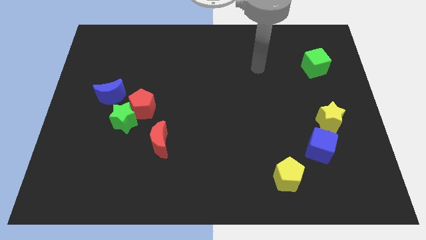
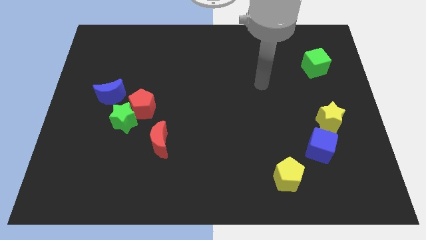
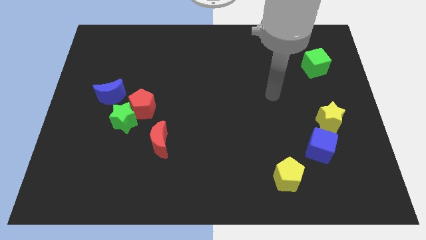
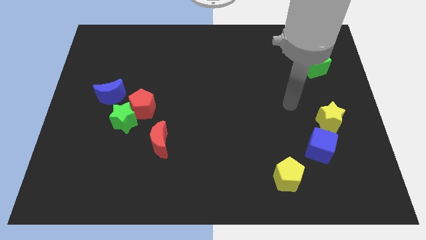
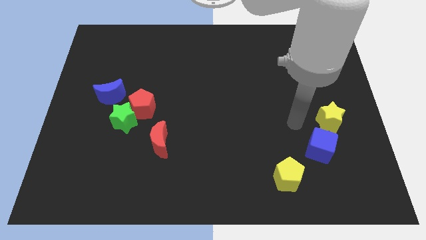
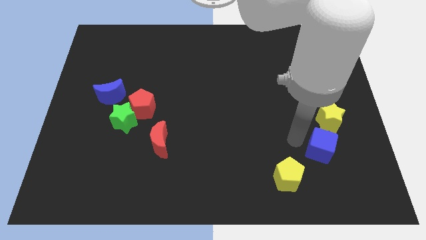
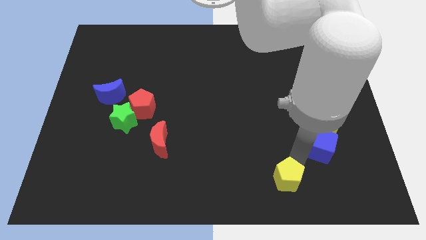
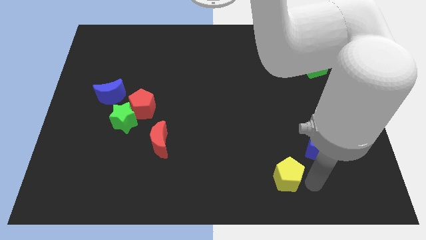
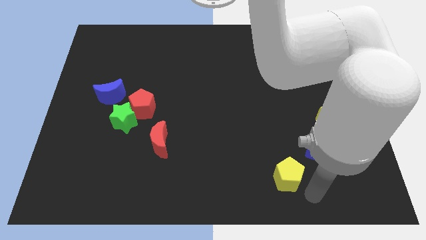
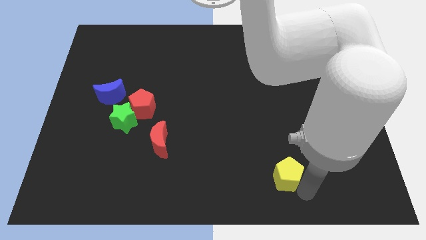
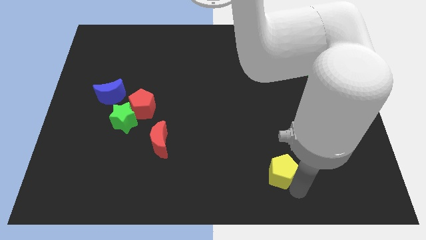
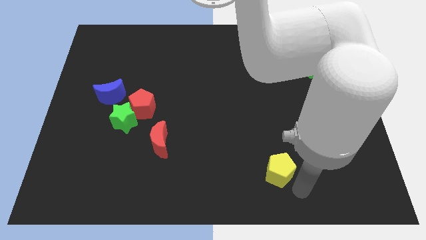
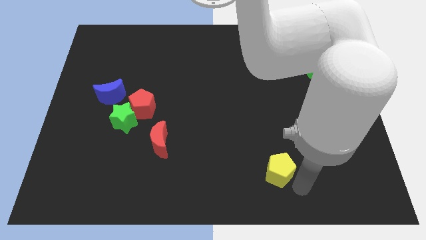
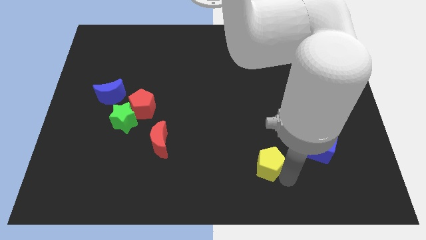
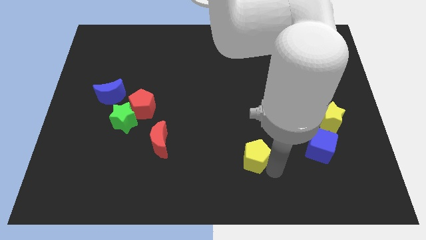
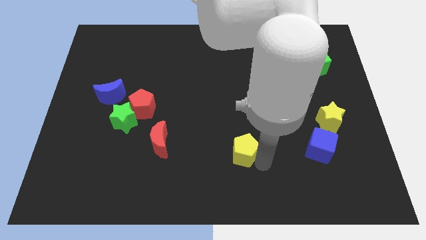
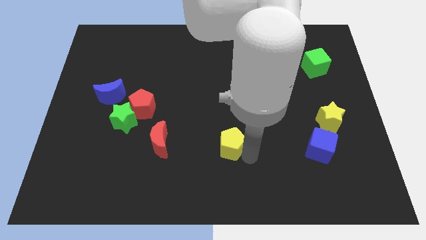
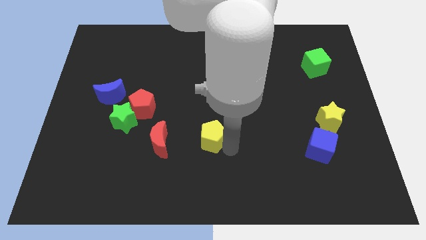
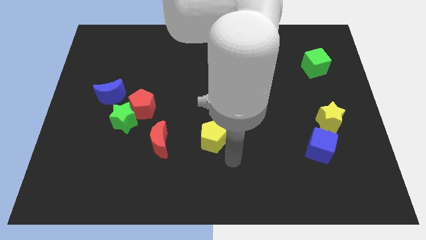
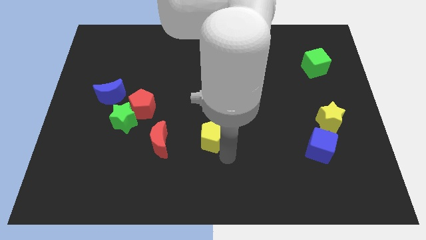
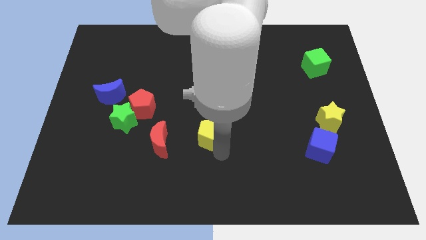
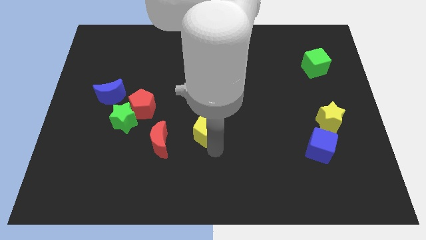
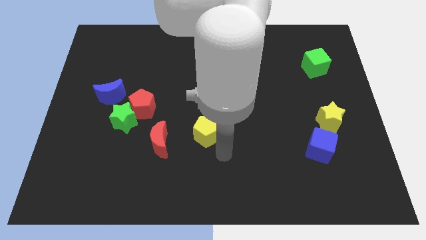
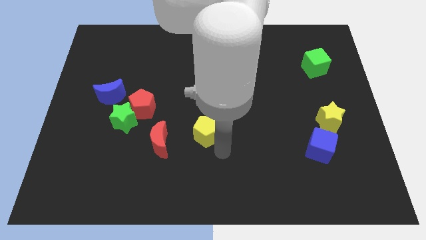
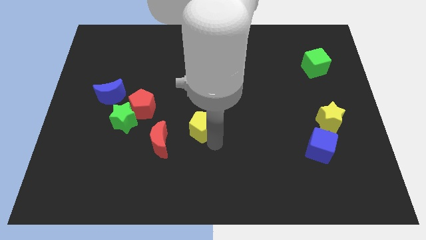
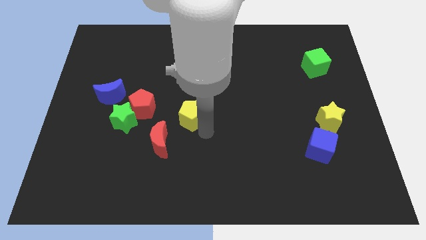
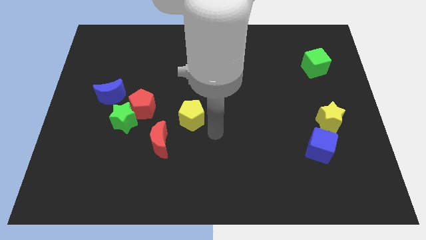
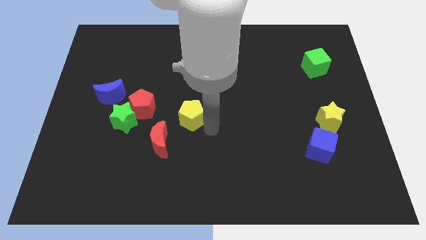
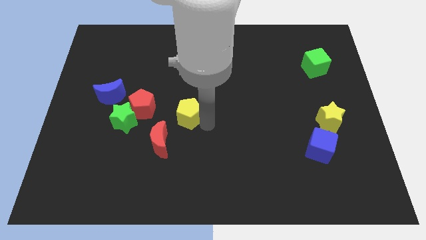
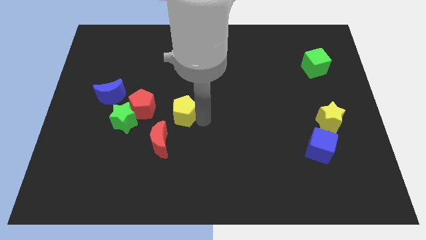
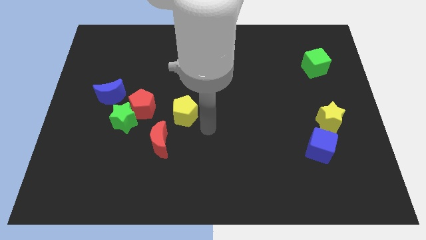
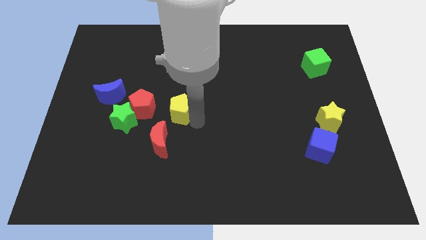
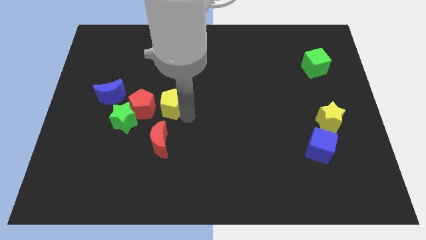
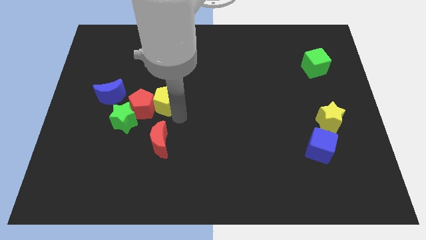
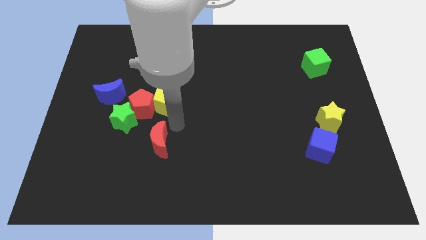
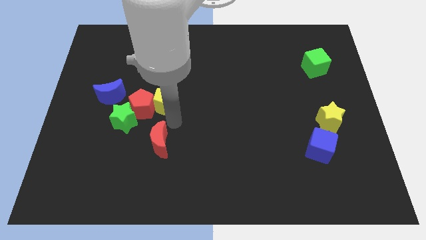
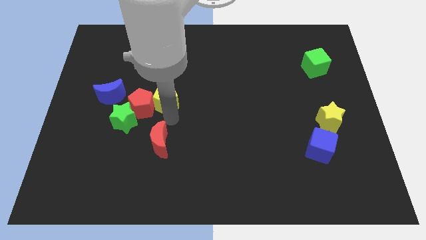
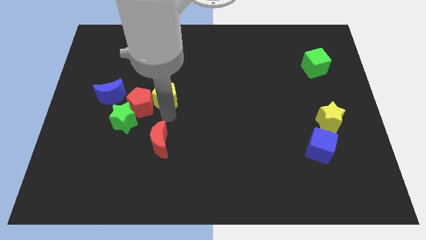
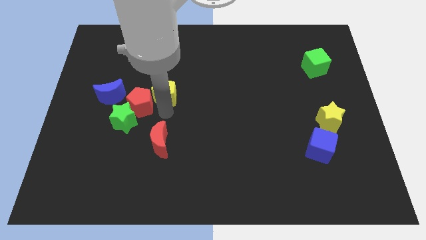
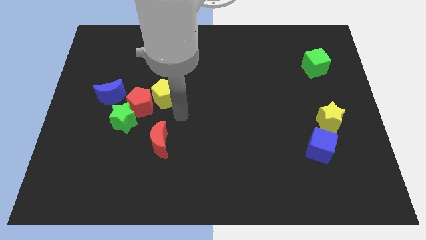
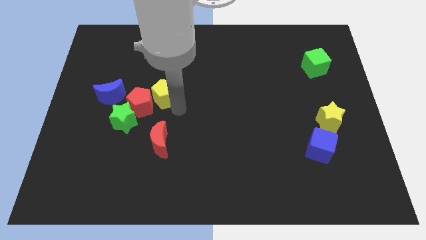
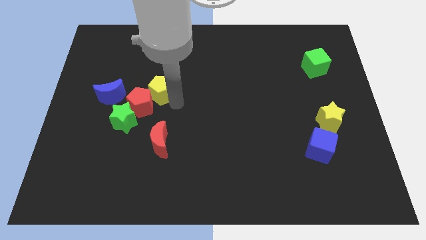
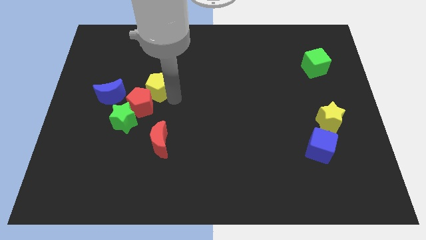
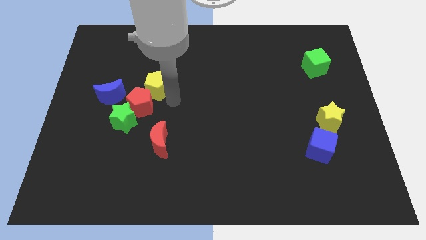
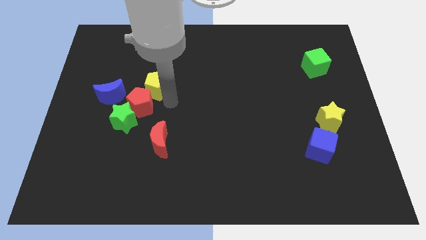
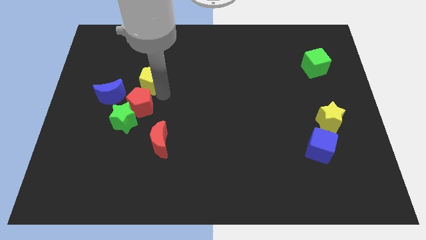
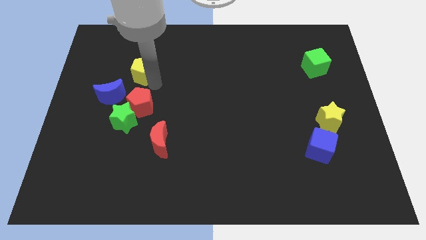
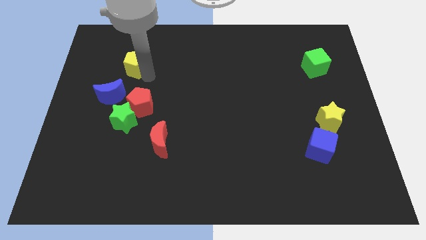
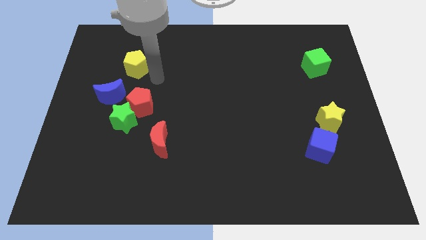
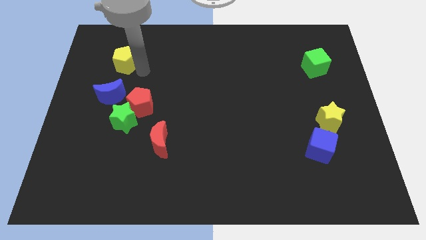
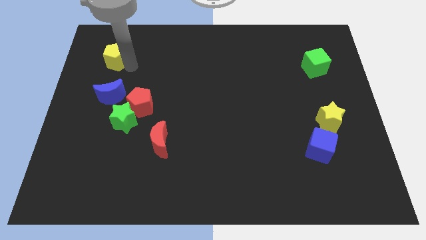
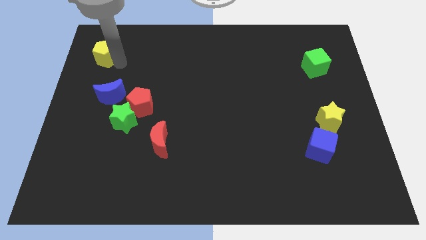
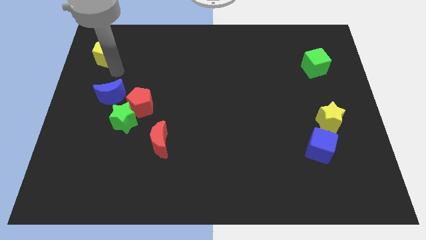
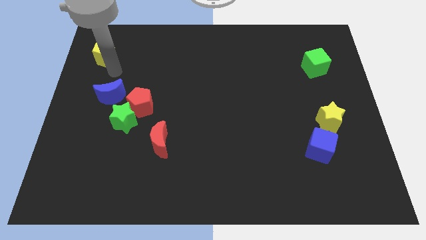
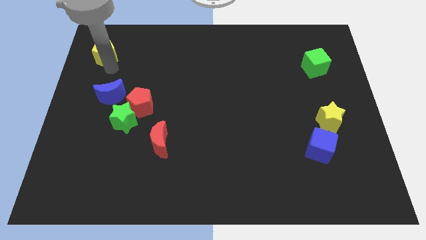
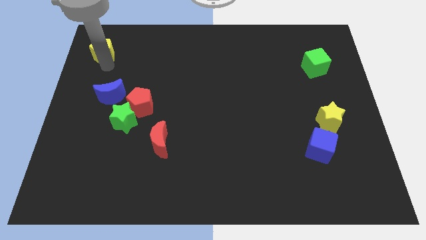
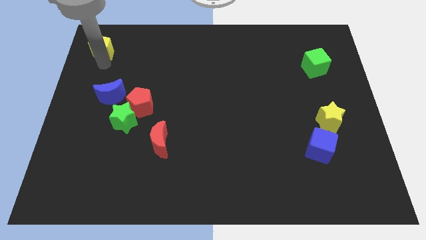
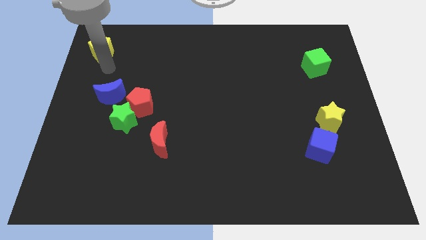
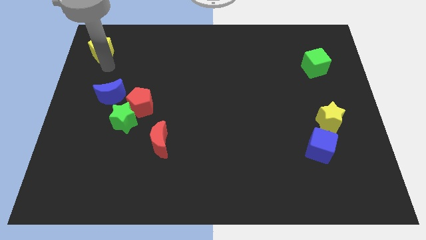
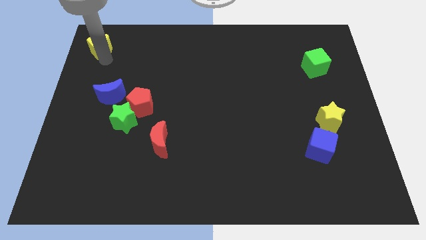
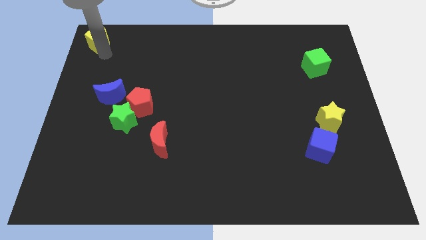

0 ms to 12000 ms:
push the yellow pentagon to the upper left corner

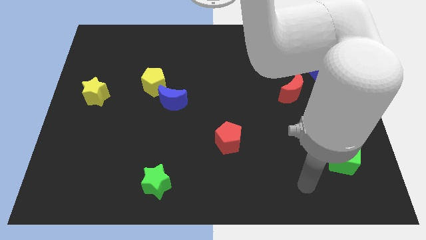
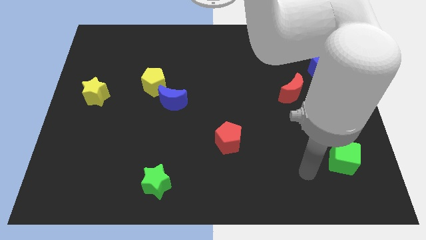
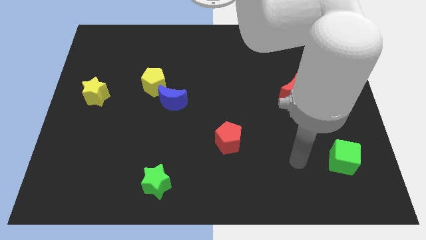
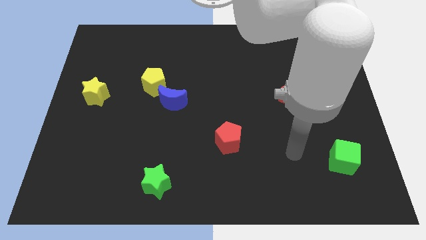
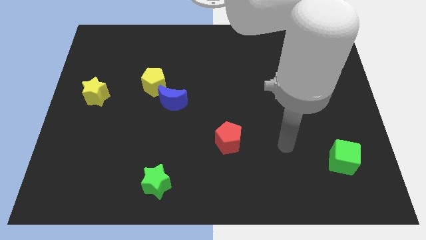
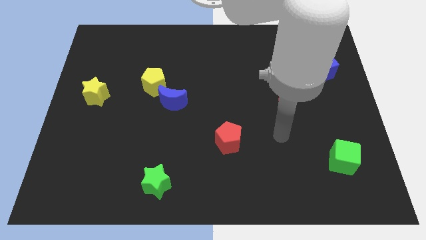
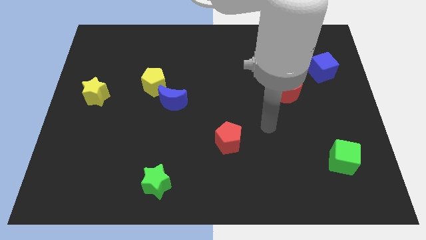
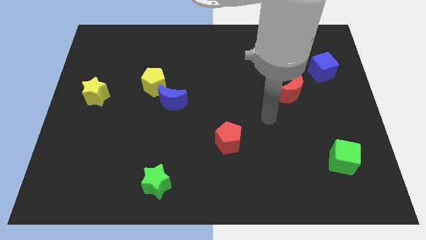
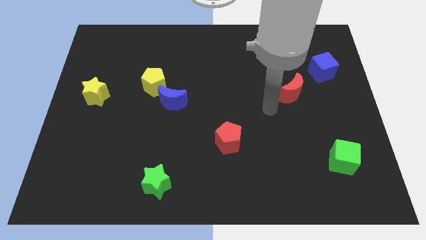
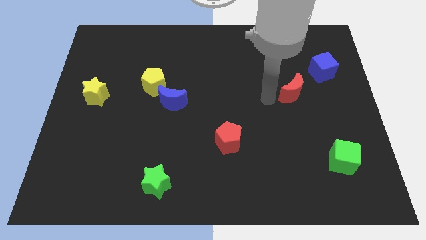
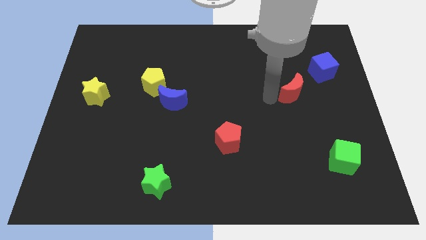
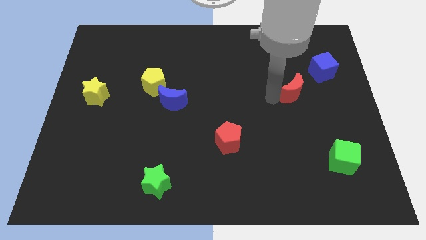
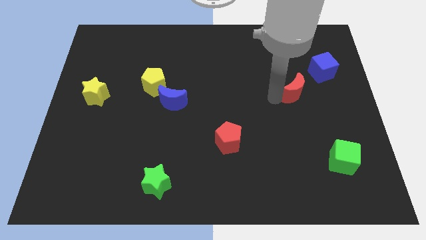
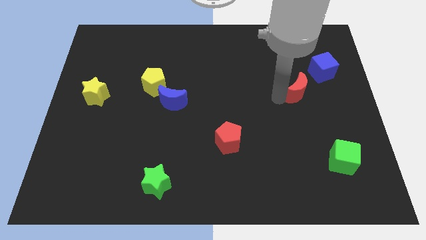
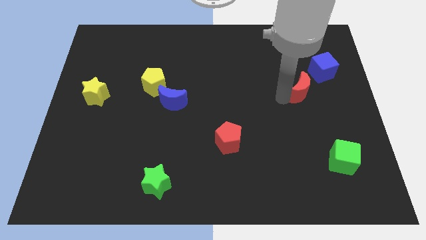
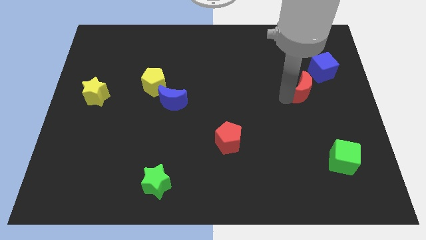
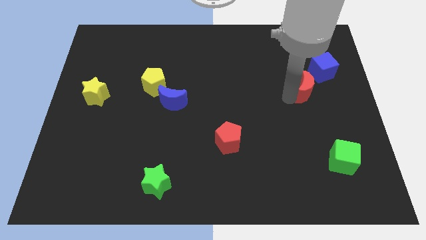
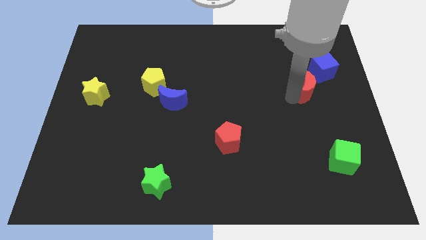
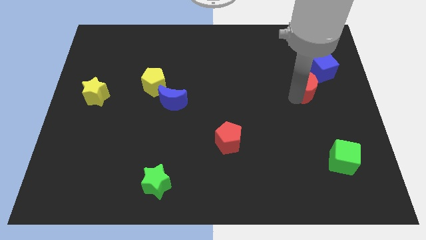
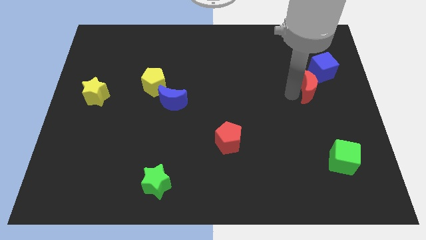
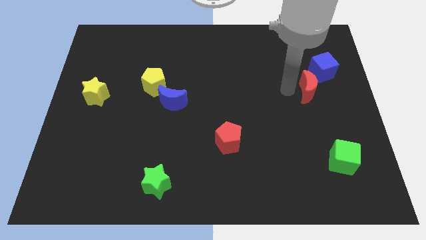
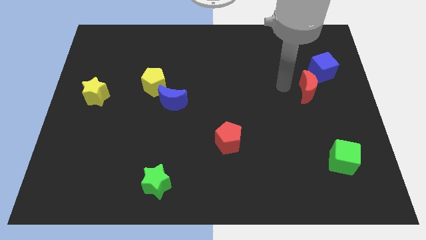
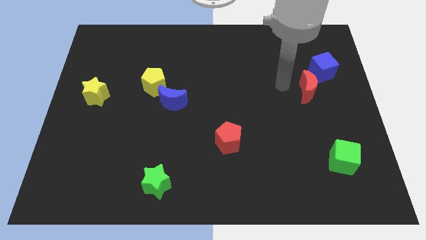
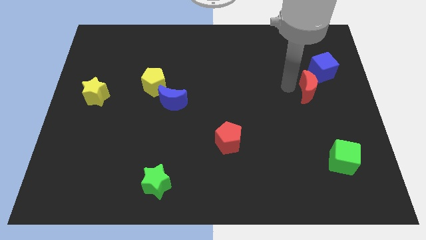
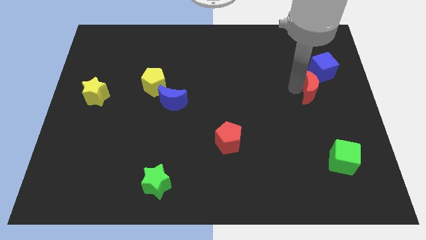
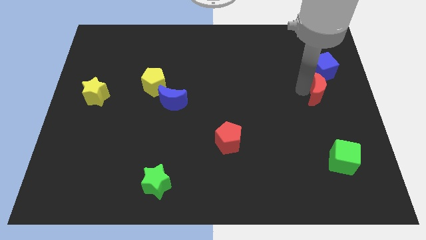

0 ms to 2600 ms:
put the red moon to the right side
